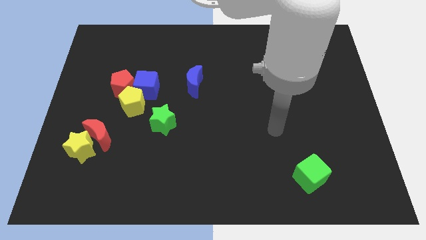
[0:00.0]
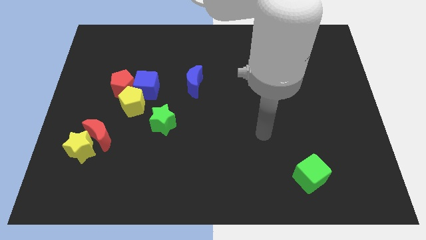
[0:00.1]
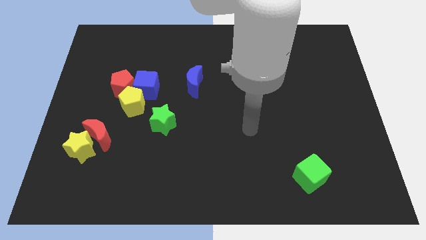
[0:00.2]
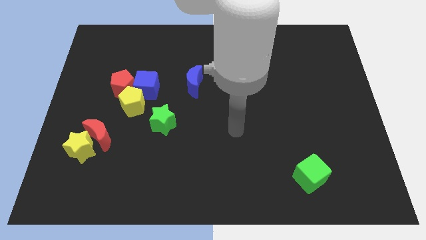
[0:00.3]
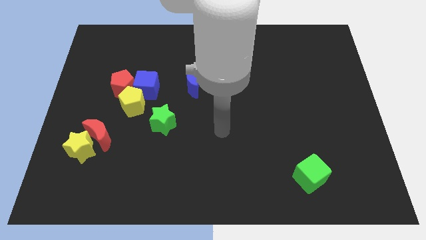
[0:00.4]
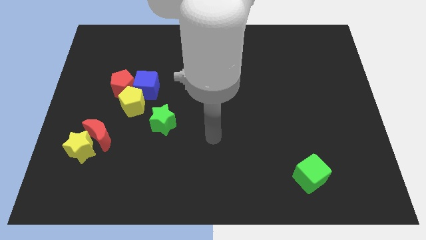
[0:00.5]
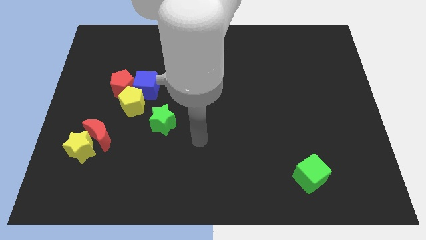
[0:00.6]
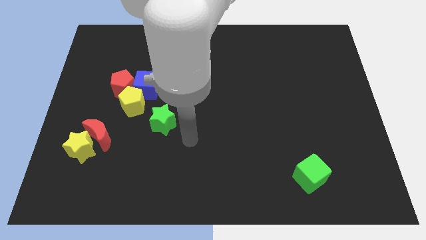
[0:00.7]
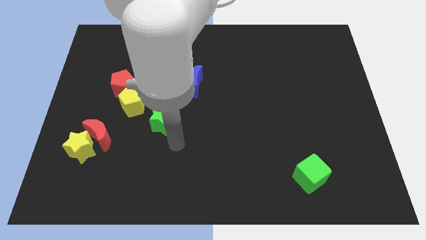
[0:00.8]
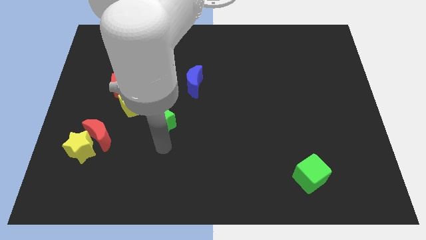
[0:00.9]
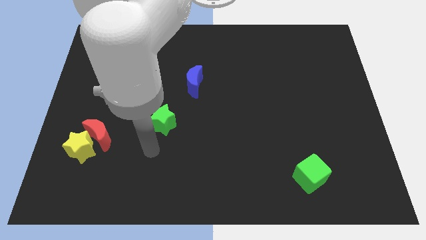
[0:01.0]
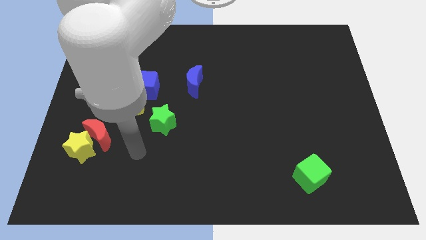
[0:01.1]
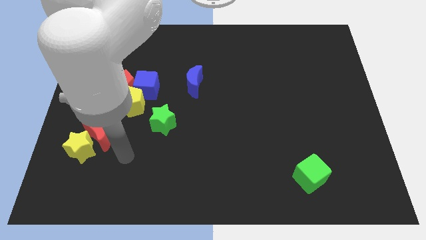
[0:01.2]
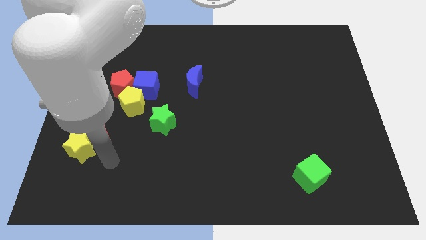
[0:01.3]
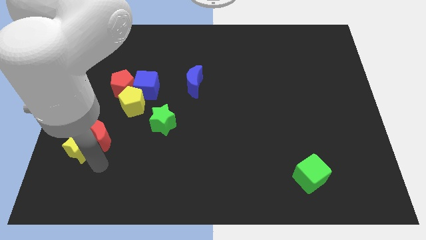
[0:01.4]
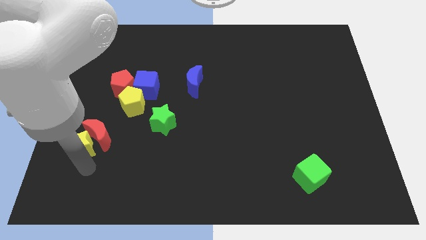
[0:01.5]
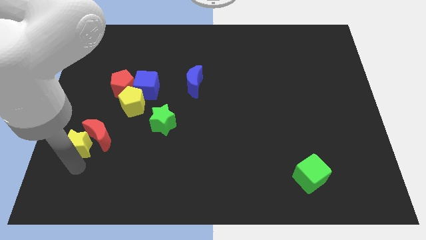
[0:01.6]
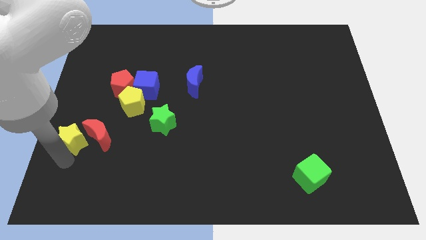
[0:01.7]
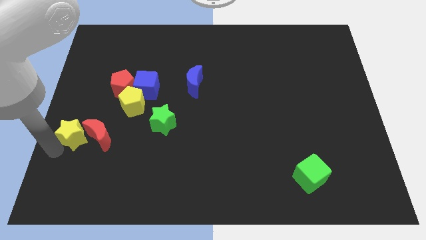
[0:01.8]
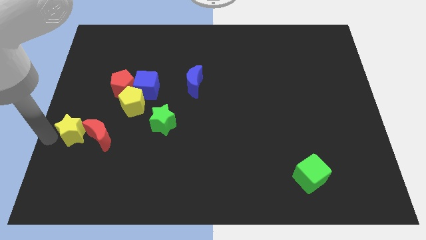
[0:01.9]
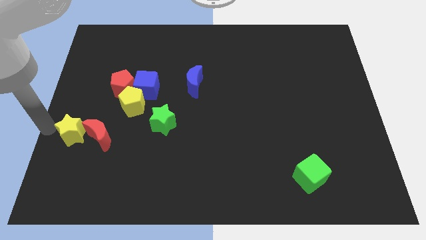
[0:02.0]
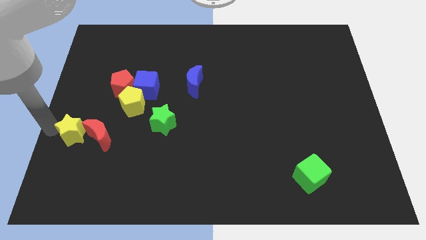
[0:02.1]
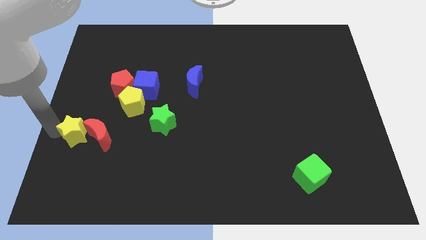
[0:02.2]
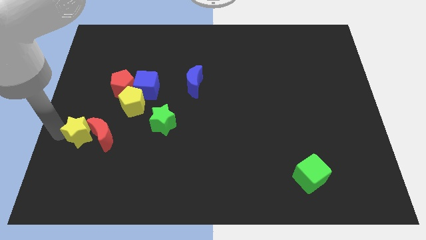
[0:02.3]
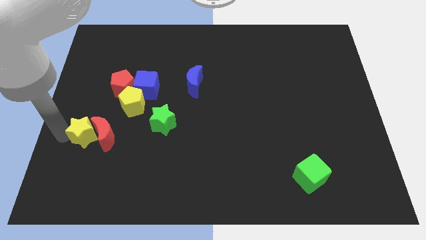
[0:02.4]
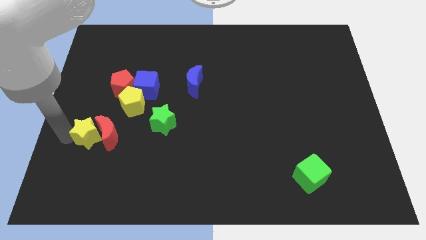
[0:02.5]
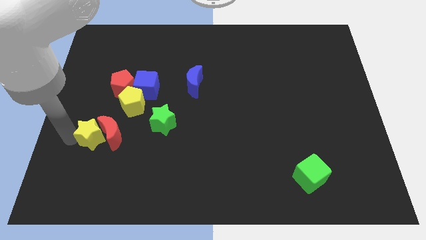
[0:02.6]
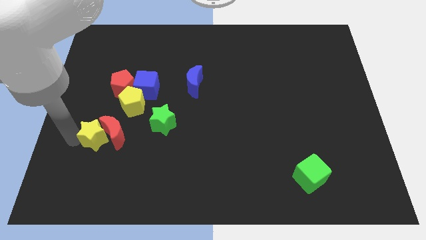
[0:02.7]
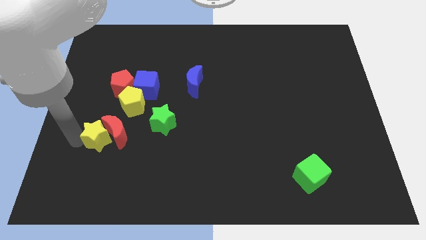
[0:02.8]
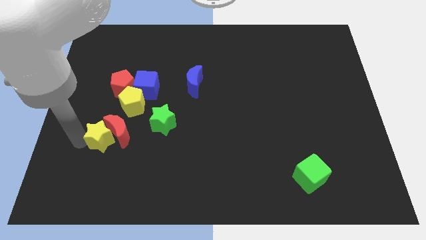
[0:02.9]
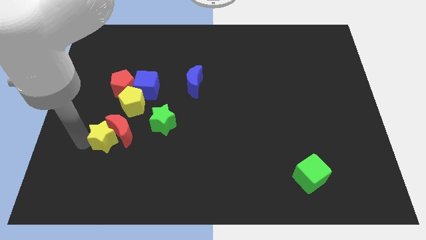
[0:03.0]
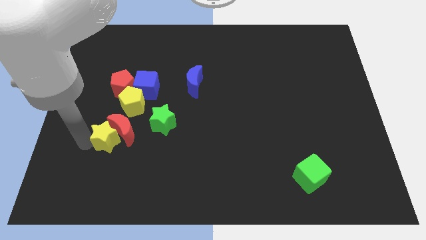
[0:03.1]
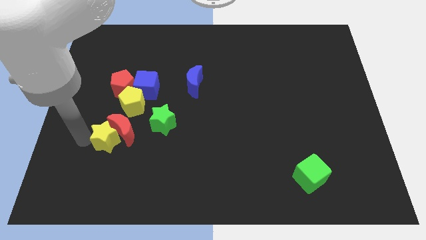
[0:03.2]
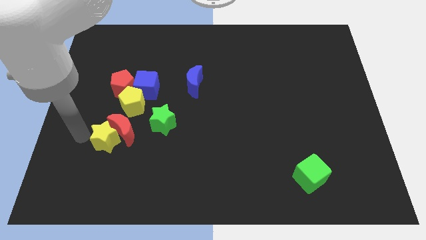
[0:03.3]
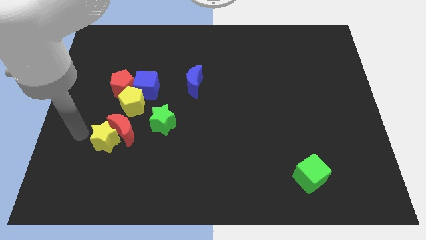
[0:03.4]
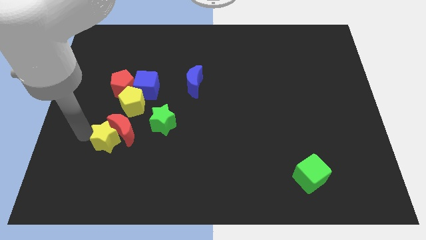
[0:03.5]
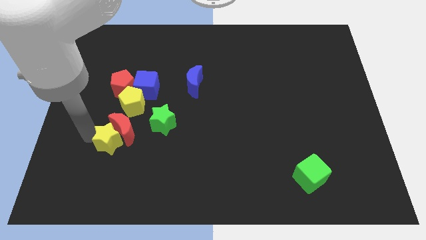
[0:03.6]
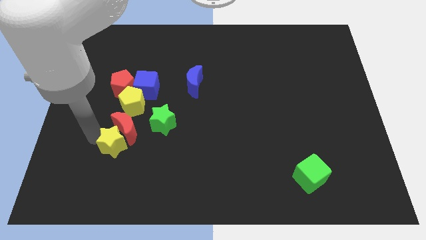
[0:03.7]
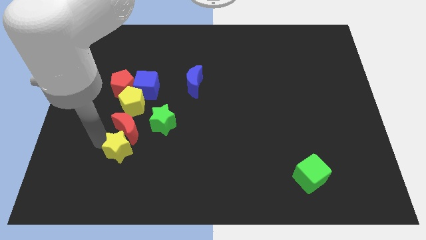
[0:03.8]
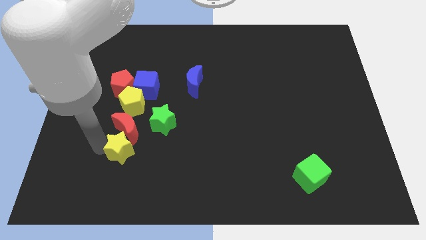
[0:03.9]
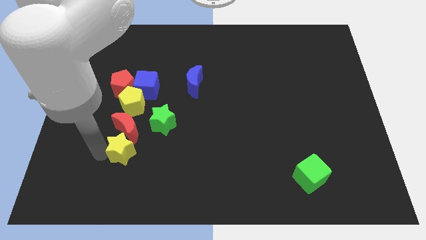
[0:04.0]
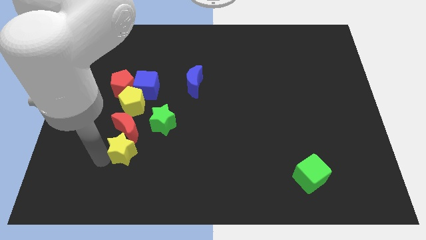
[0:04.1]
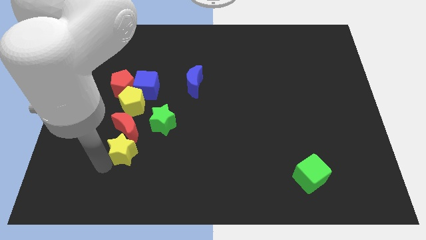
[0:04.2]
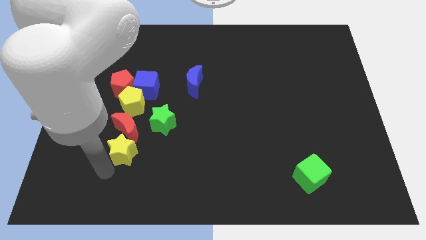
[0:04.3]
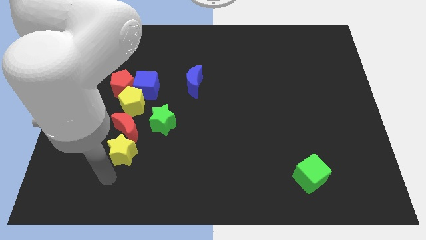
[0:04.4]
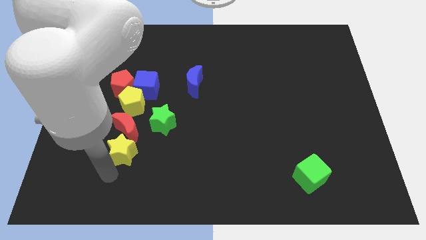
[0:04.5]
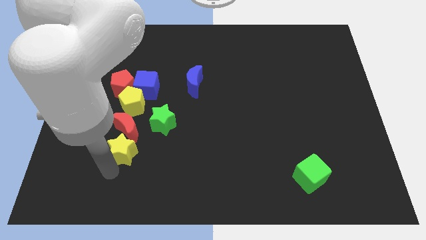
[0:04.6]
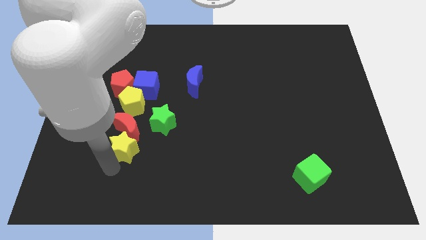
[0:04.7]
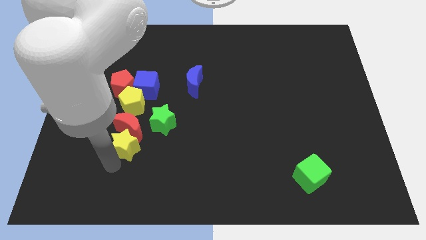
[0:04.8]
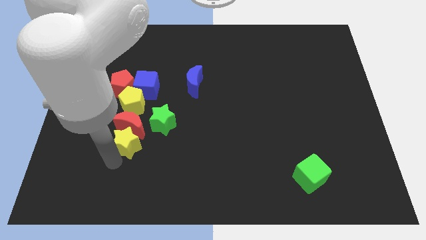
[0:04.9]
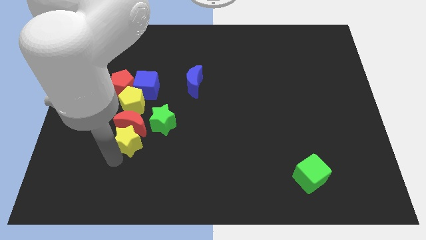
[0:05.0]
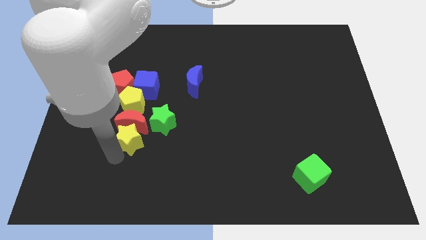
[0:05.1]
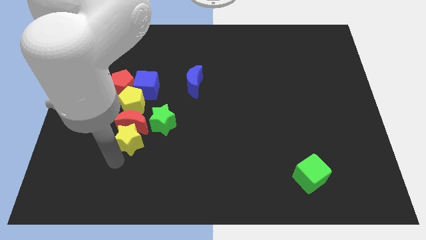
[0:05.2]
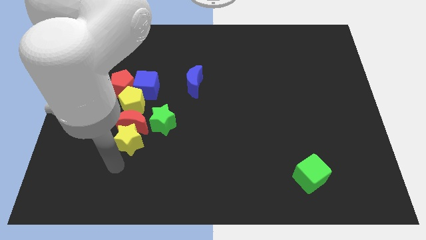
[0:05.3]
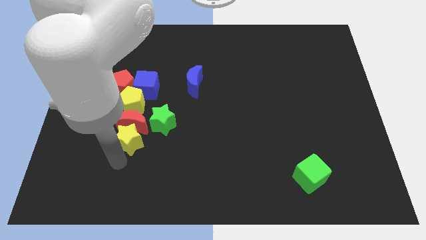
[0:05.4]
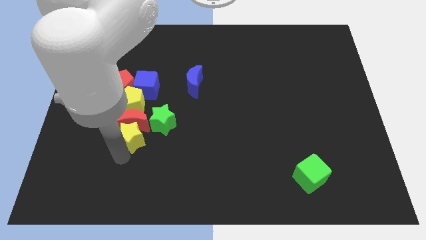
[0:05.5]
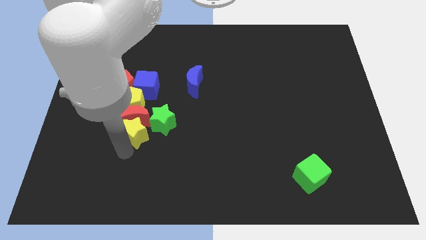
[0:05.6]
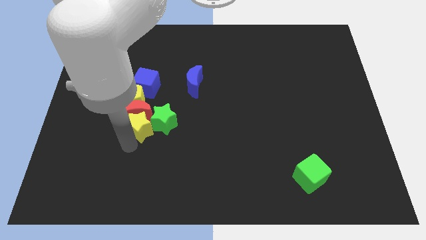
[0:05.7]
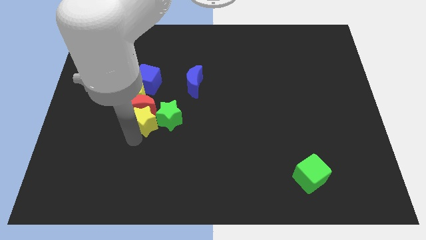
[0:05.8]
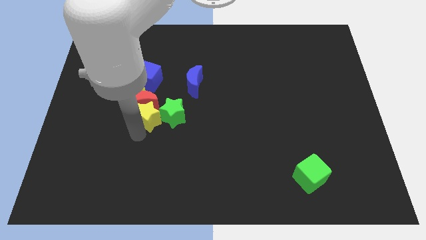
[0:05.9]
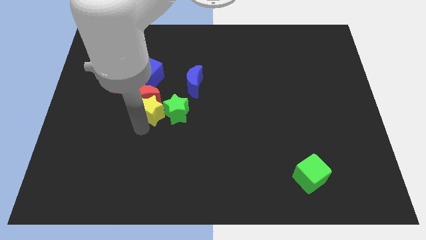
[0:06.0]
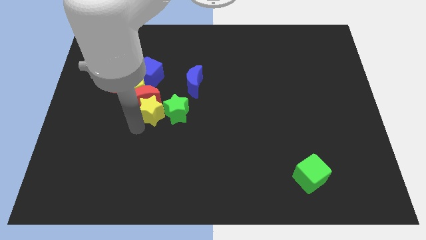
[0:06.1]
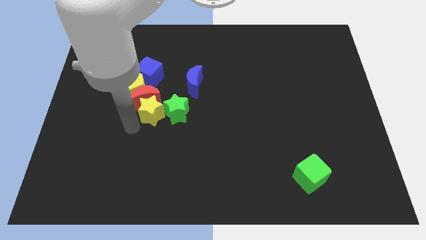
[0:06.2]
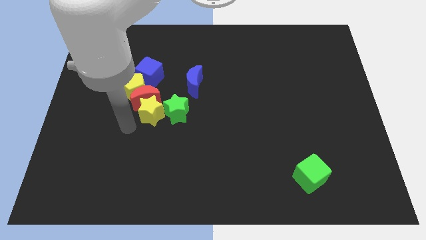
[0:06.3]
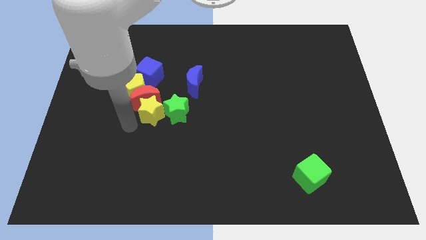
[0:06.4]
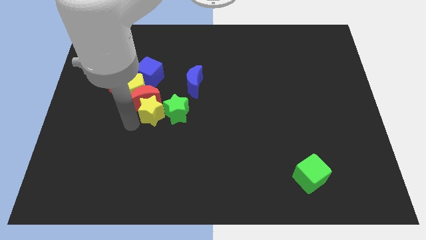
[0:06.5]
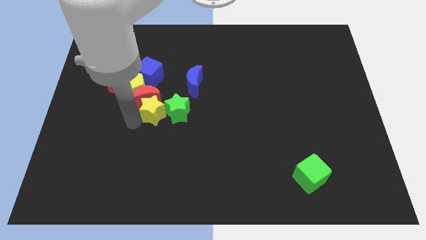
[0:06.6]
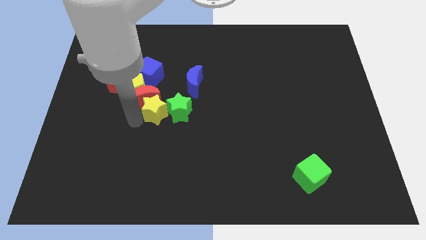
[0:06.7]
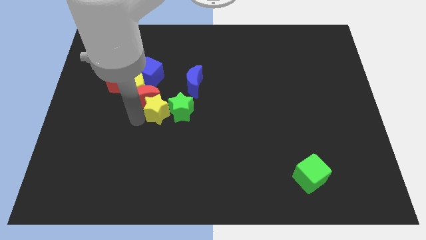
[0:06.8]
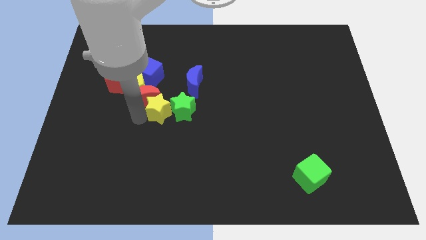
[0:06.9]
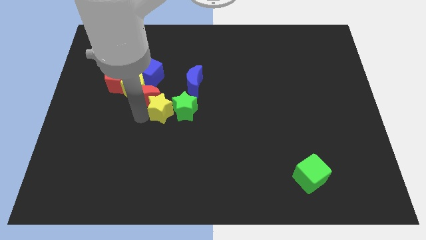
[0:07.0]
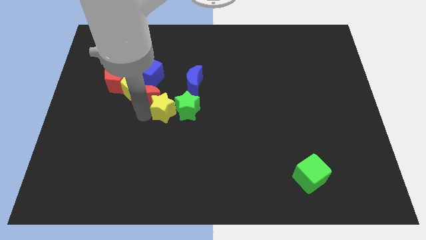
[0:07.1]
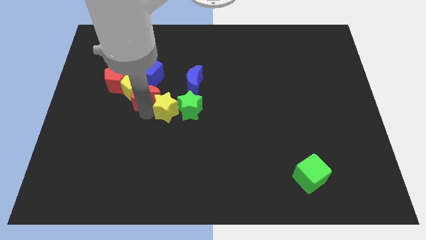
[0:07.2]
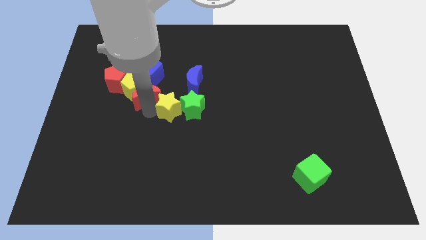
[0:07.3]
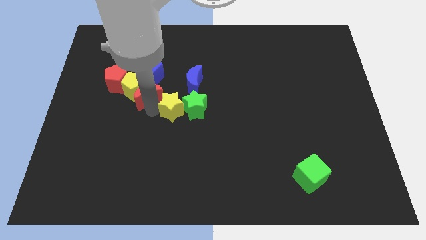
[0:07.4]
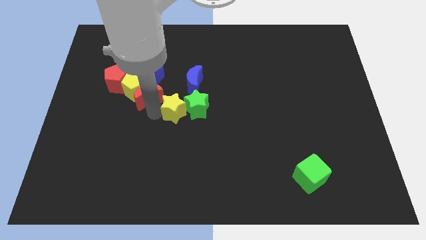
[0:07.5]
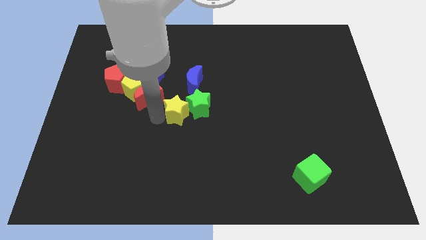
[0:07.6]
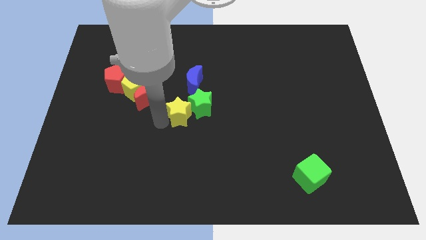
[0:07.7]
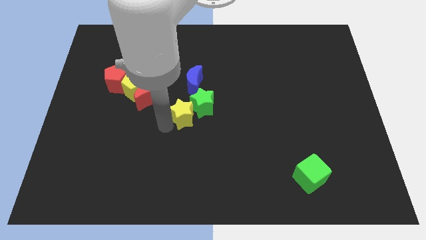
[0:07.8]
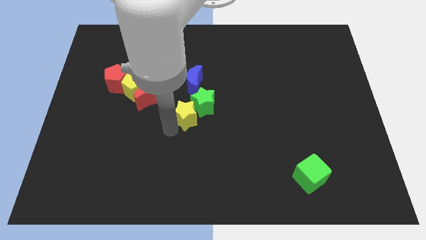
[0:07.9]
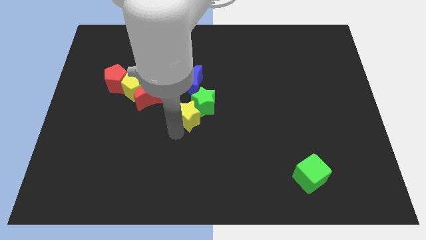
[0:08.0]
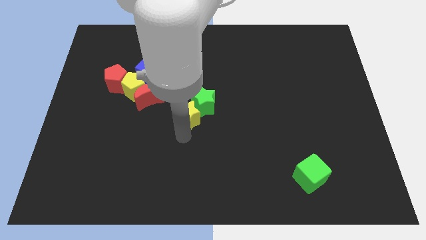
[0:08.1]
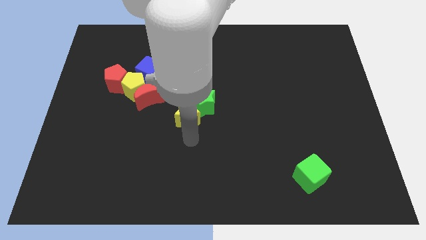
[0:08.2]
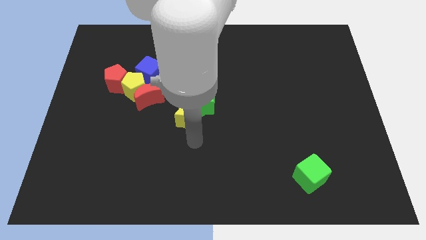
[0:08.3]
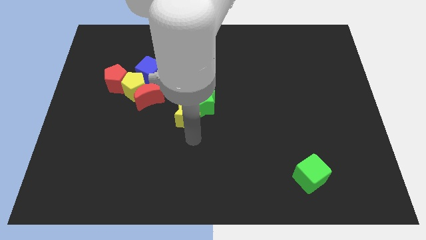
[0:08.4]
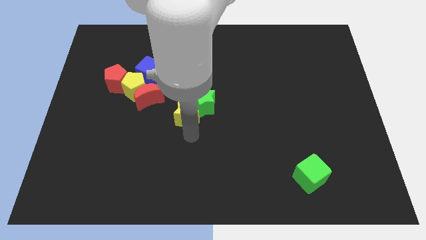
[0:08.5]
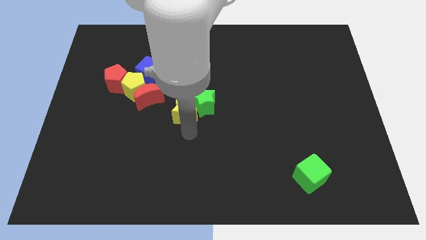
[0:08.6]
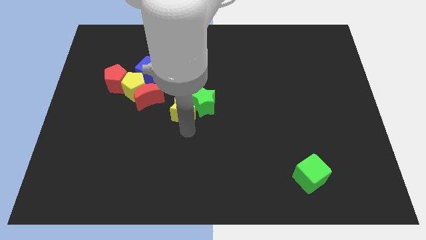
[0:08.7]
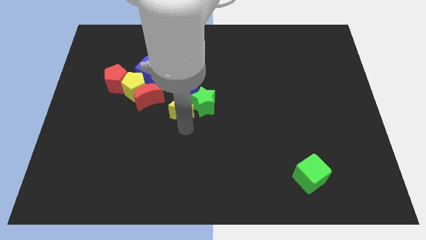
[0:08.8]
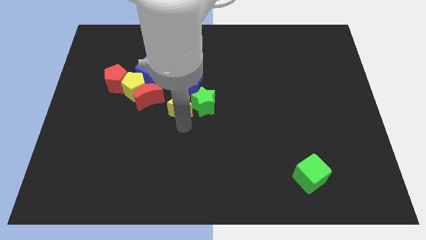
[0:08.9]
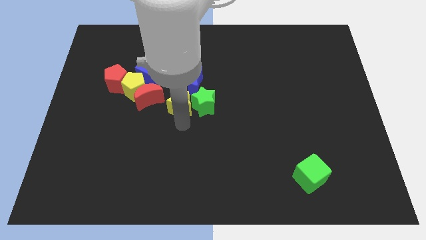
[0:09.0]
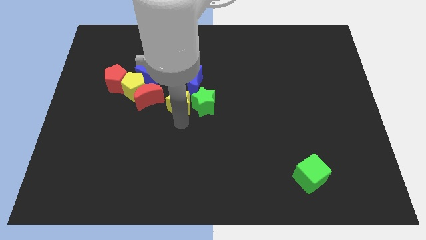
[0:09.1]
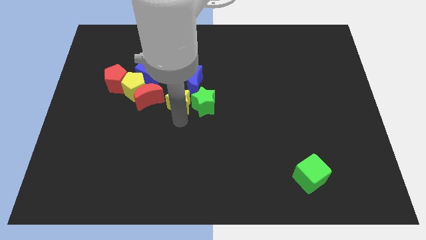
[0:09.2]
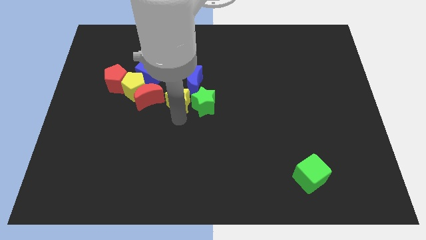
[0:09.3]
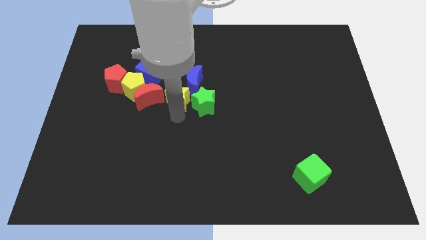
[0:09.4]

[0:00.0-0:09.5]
slide the yellow star close to the blue moon
